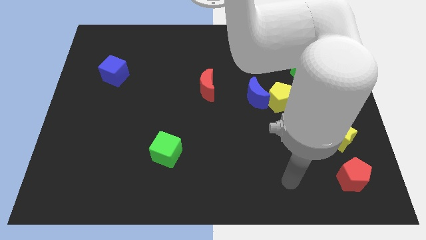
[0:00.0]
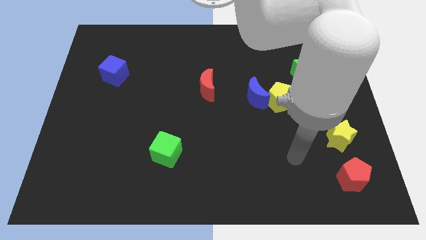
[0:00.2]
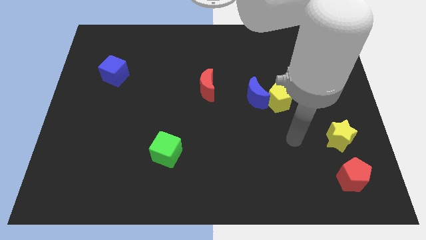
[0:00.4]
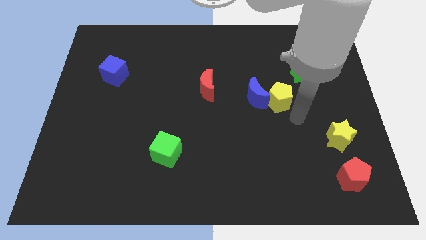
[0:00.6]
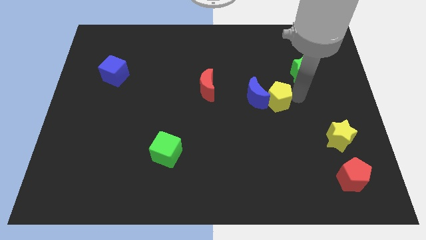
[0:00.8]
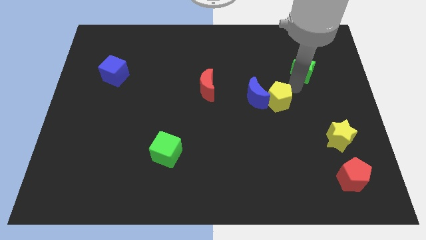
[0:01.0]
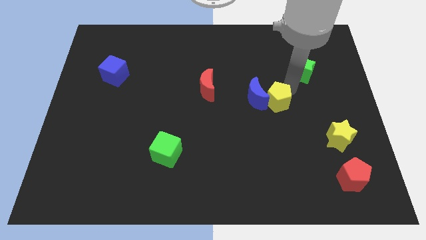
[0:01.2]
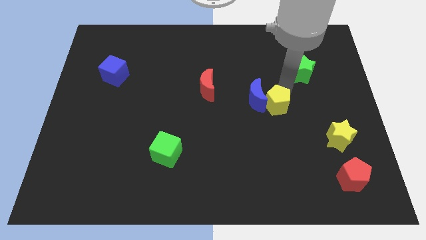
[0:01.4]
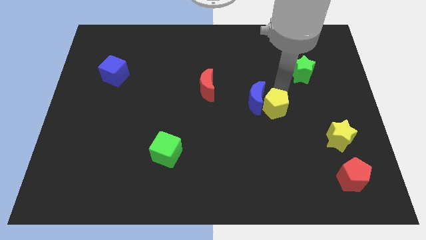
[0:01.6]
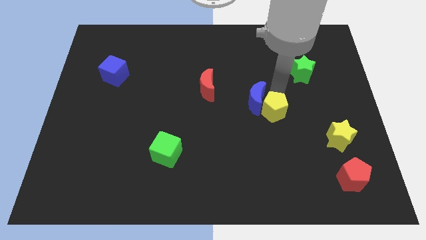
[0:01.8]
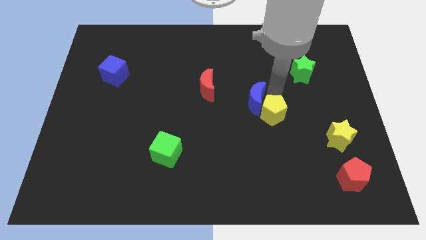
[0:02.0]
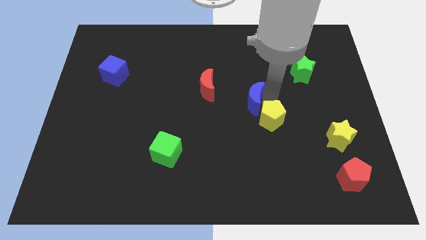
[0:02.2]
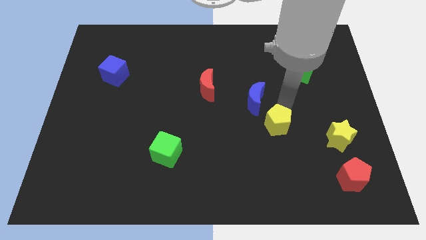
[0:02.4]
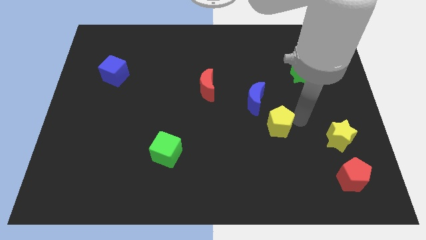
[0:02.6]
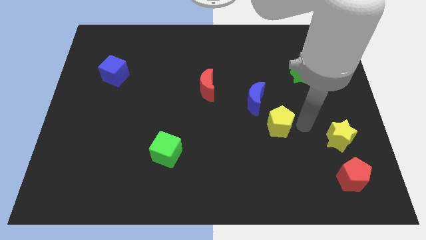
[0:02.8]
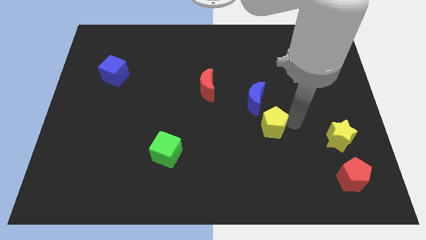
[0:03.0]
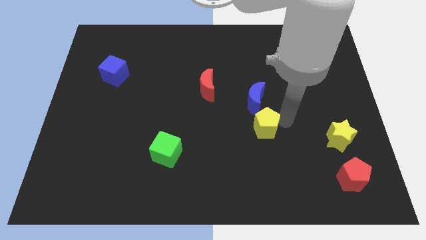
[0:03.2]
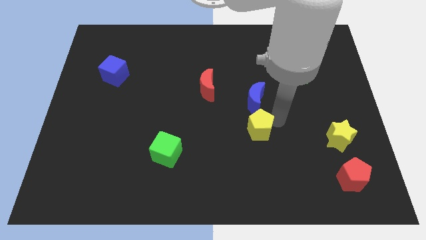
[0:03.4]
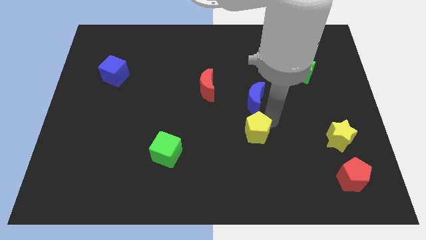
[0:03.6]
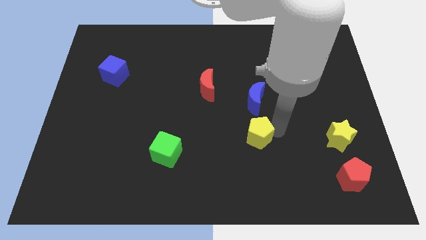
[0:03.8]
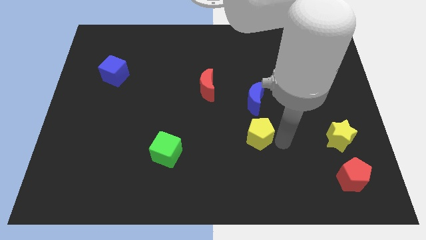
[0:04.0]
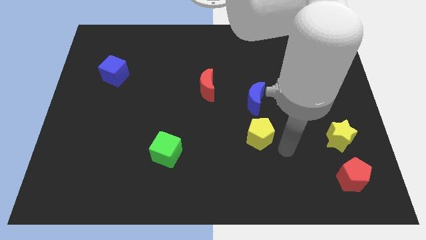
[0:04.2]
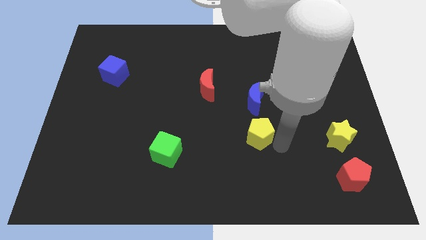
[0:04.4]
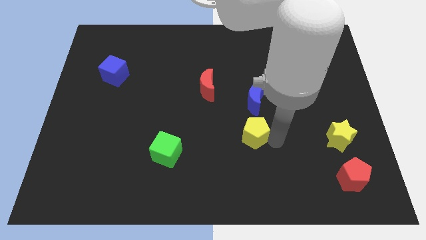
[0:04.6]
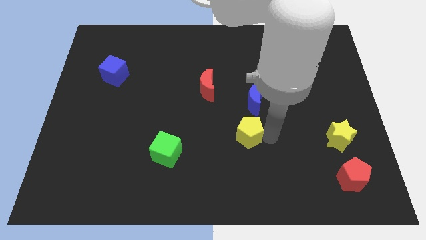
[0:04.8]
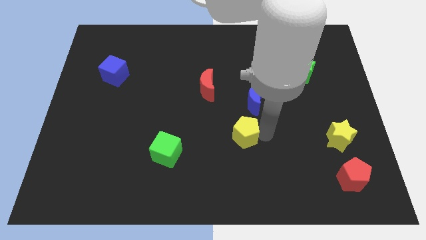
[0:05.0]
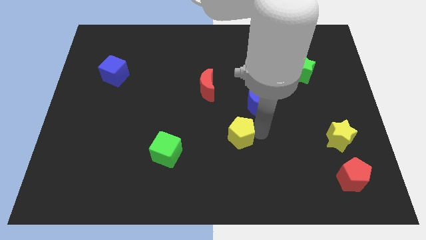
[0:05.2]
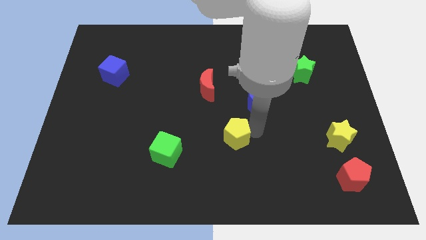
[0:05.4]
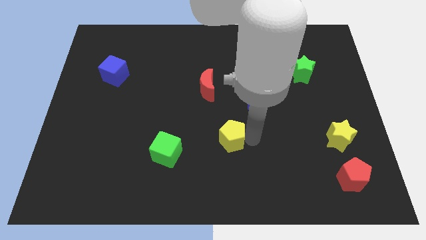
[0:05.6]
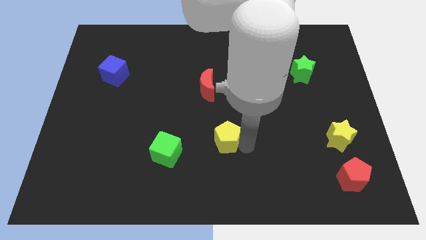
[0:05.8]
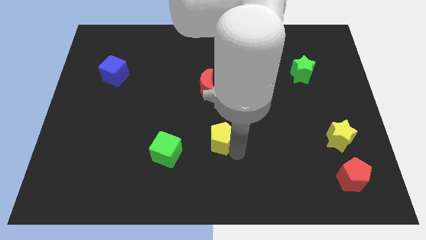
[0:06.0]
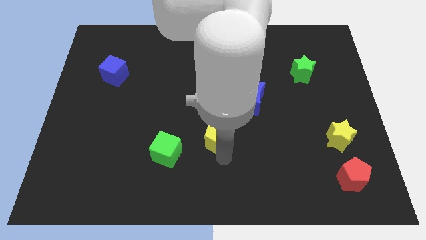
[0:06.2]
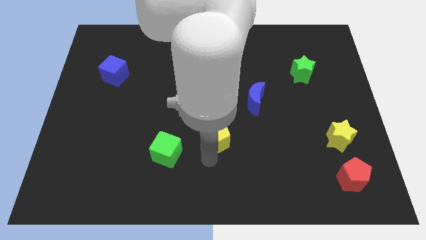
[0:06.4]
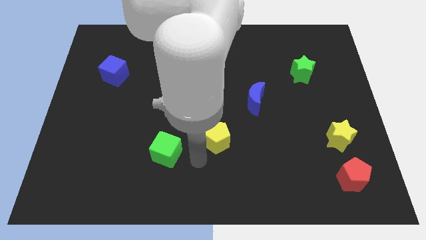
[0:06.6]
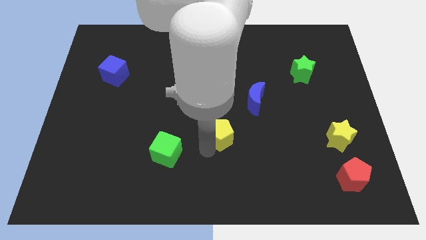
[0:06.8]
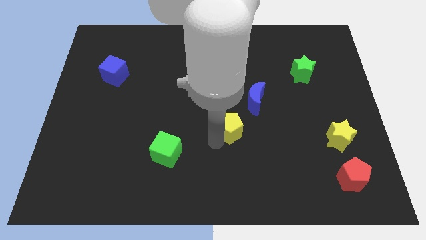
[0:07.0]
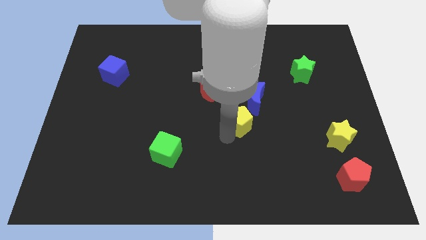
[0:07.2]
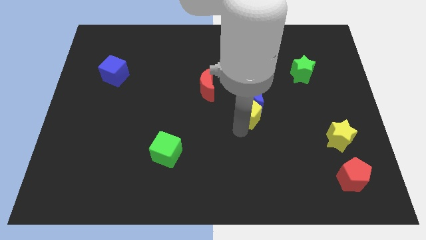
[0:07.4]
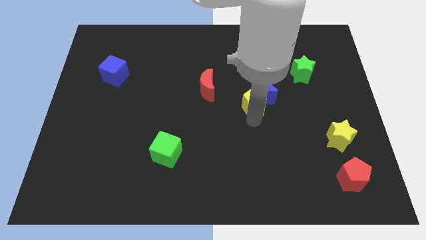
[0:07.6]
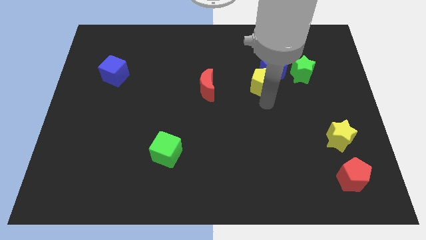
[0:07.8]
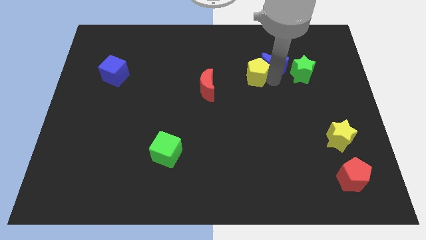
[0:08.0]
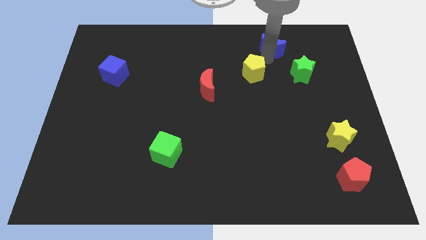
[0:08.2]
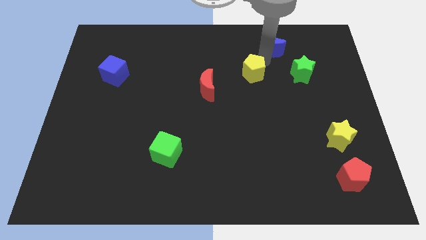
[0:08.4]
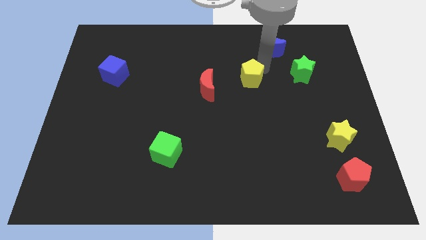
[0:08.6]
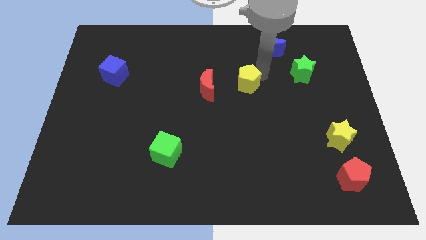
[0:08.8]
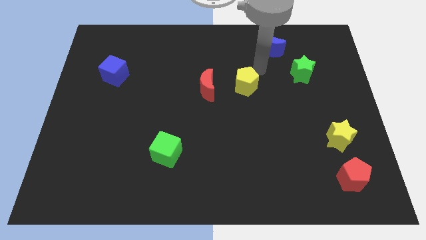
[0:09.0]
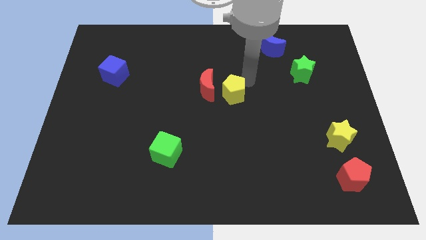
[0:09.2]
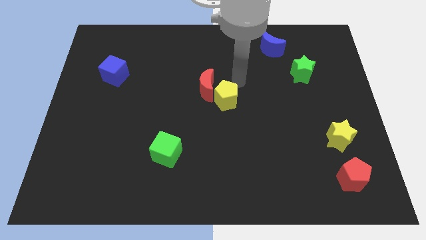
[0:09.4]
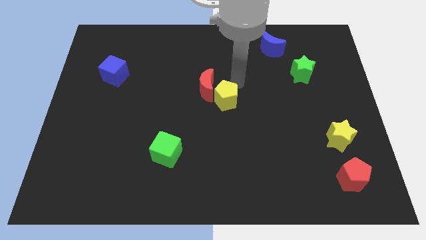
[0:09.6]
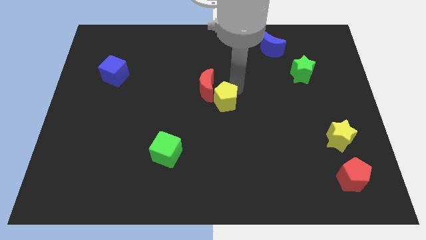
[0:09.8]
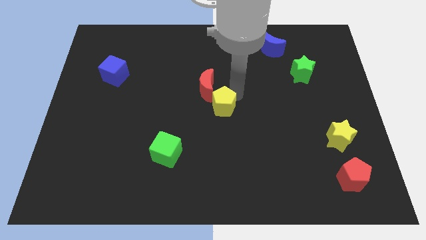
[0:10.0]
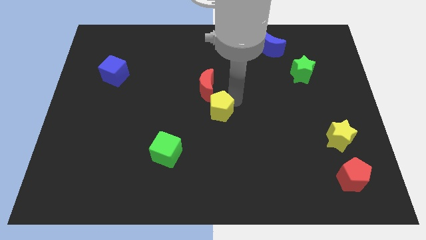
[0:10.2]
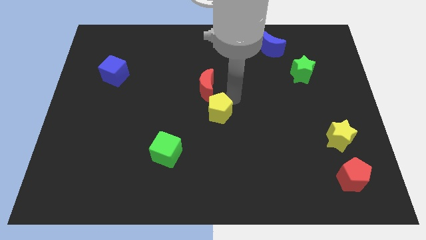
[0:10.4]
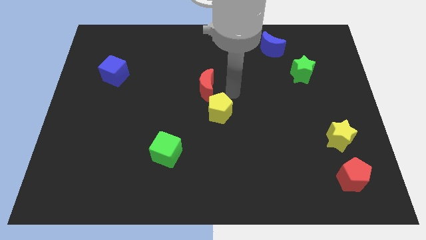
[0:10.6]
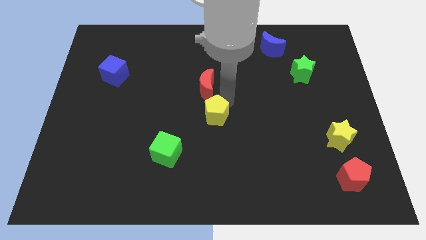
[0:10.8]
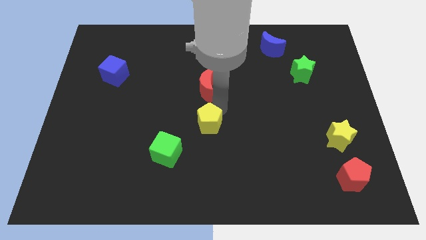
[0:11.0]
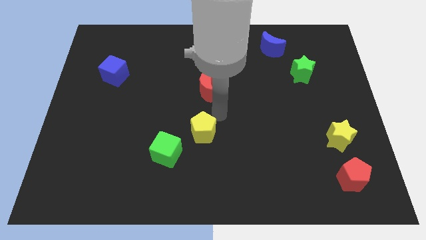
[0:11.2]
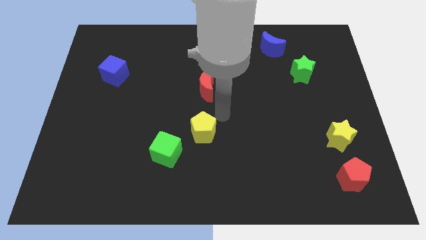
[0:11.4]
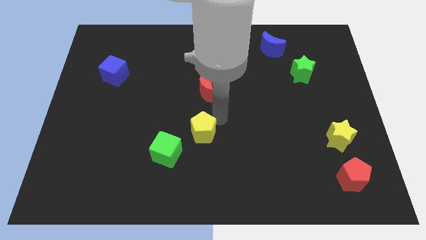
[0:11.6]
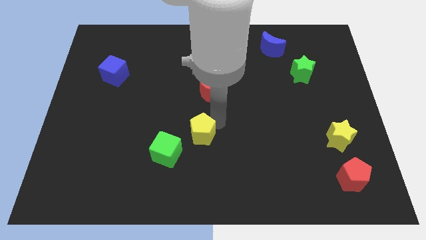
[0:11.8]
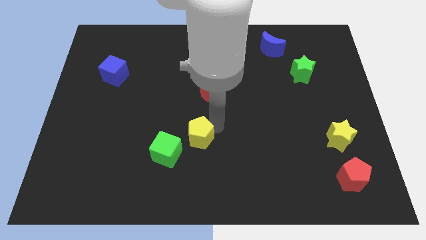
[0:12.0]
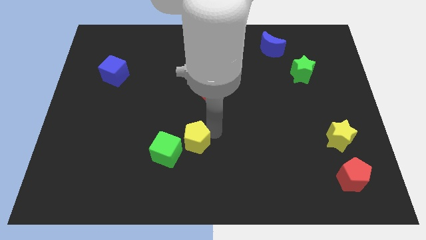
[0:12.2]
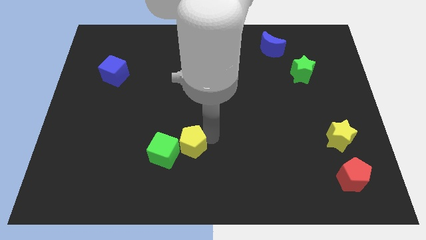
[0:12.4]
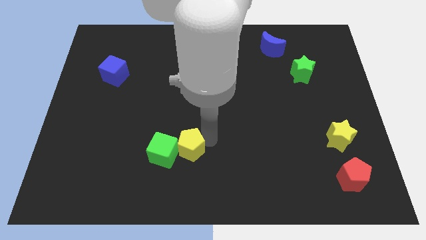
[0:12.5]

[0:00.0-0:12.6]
put the yellow pentagon towards the green cube
